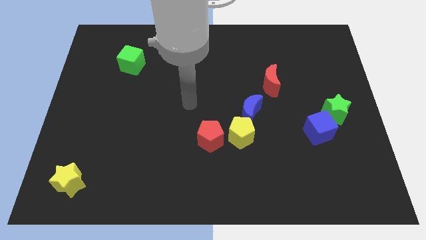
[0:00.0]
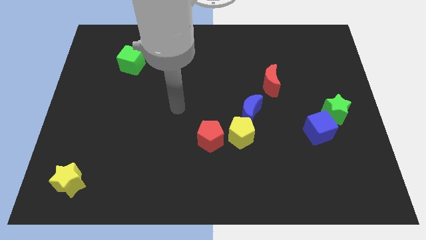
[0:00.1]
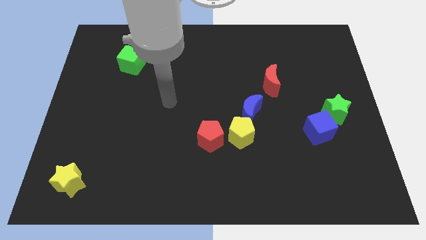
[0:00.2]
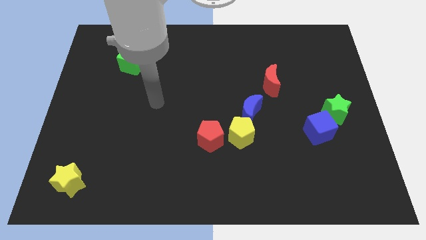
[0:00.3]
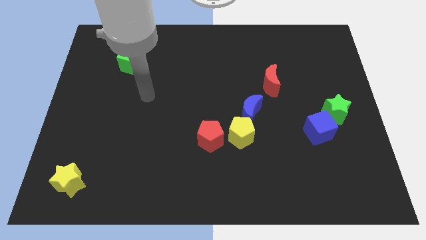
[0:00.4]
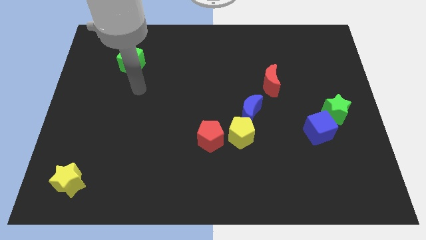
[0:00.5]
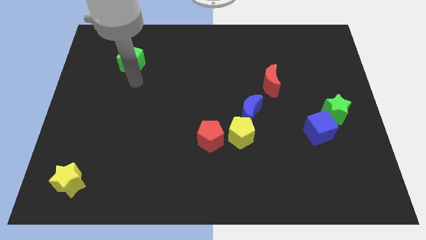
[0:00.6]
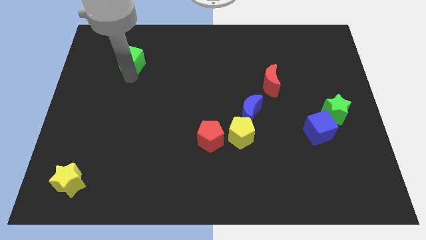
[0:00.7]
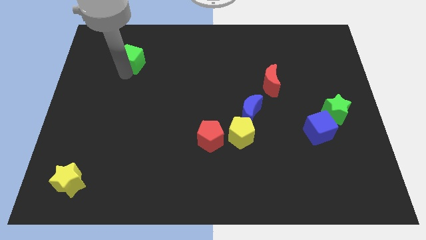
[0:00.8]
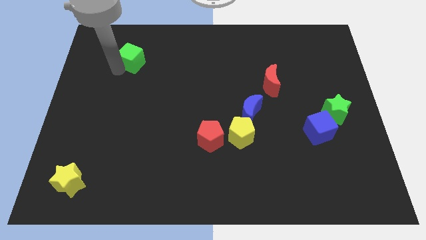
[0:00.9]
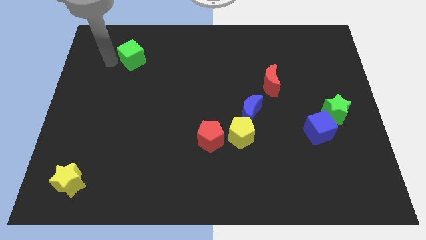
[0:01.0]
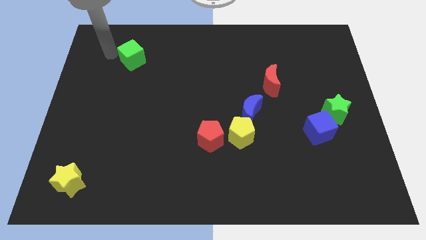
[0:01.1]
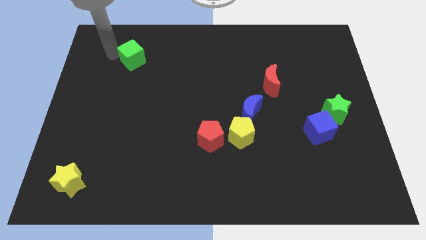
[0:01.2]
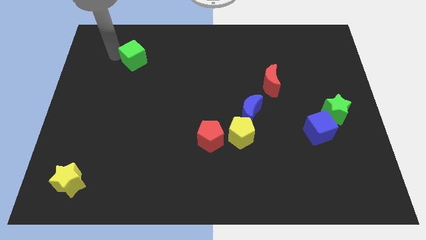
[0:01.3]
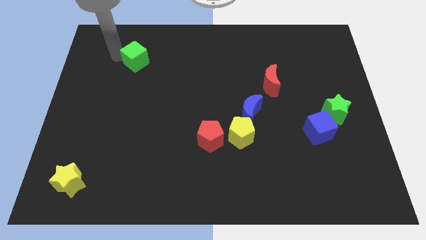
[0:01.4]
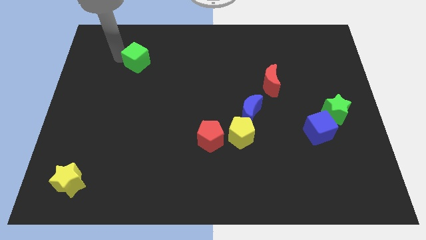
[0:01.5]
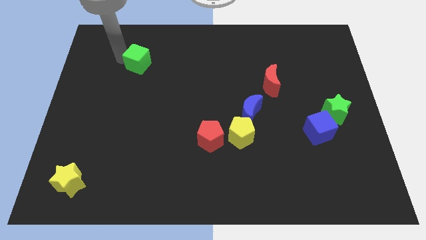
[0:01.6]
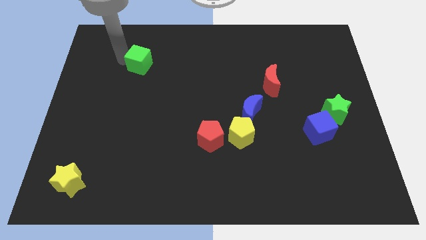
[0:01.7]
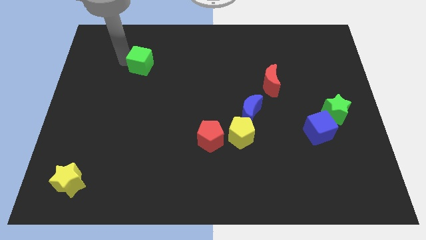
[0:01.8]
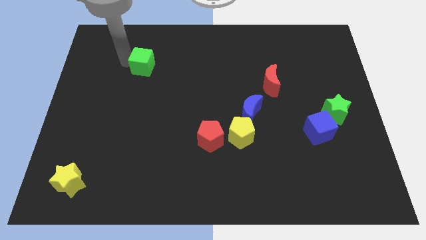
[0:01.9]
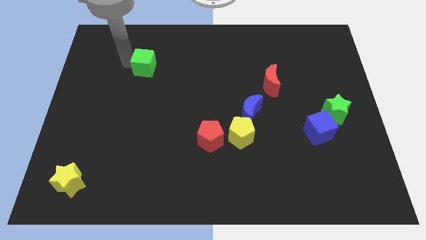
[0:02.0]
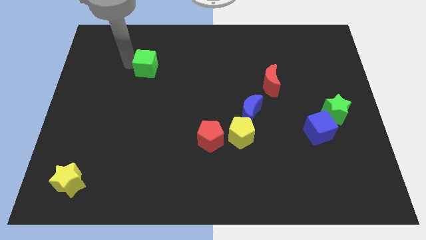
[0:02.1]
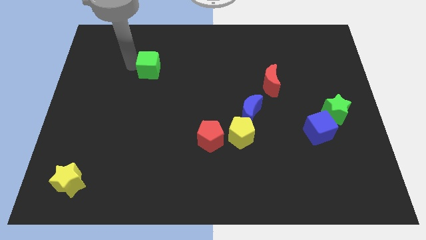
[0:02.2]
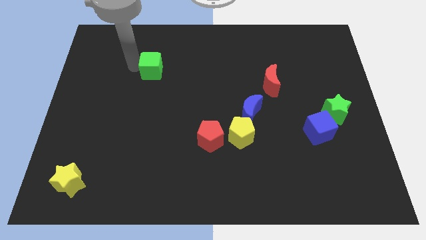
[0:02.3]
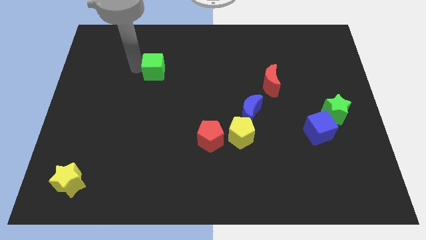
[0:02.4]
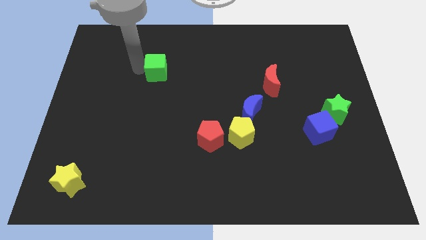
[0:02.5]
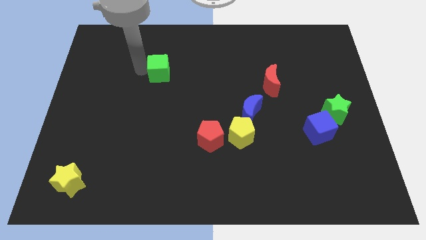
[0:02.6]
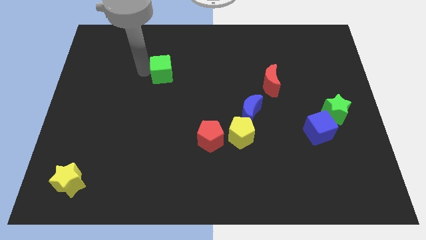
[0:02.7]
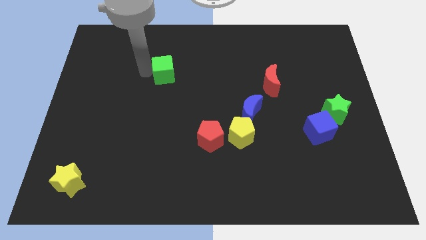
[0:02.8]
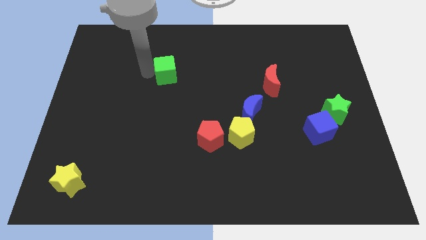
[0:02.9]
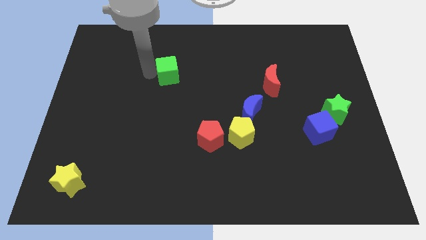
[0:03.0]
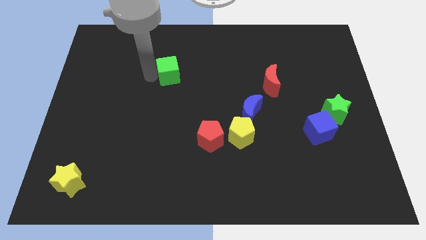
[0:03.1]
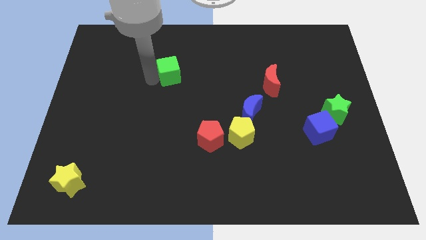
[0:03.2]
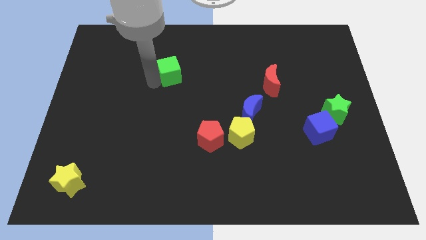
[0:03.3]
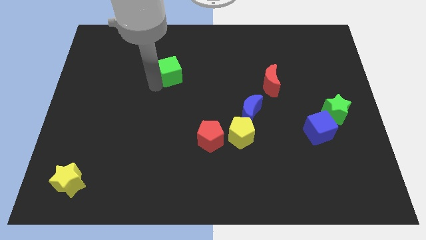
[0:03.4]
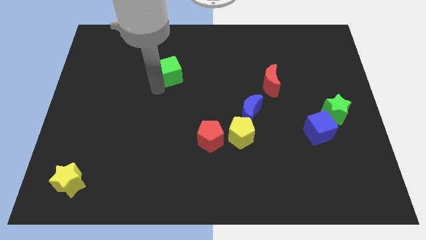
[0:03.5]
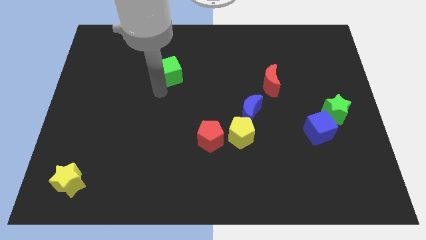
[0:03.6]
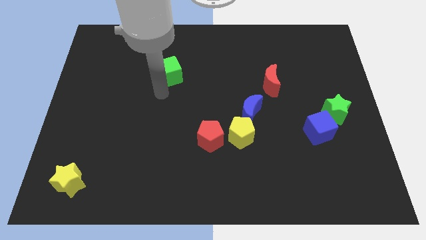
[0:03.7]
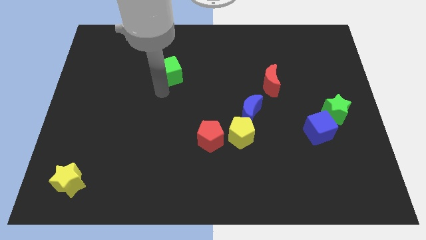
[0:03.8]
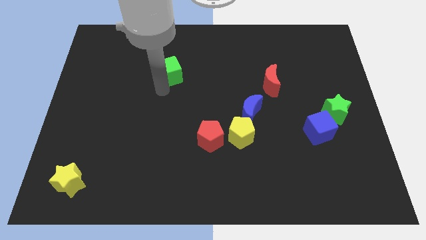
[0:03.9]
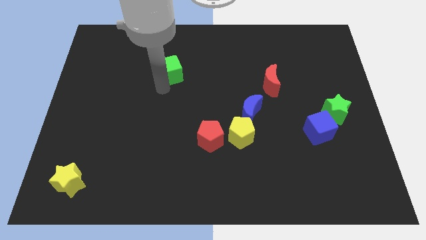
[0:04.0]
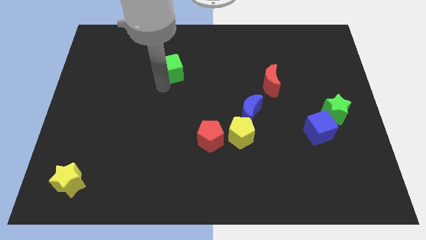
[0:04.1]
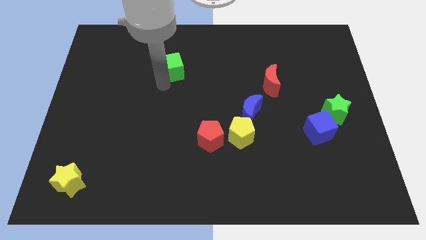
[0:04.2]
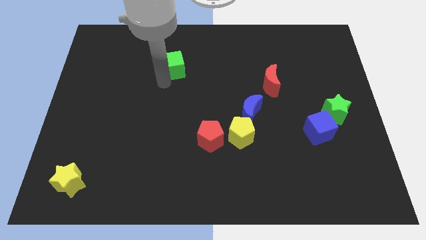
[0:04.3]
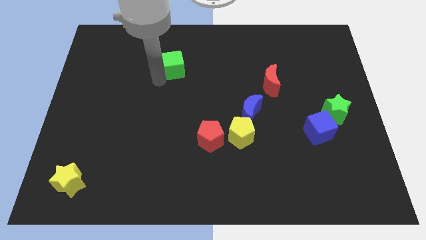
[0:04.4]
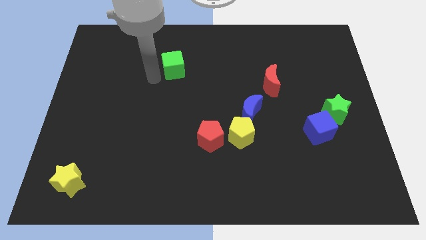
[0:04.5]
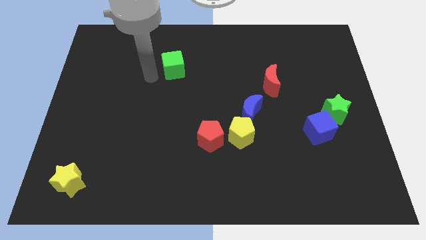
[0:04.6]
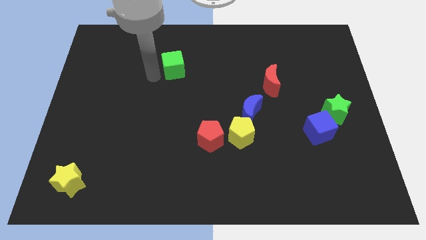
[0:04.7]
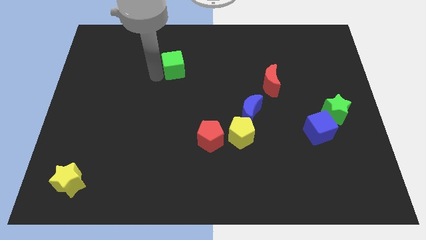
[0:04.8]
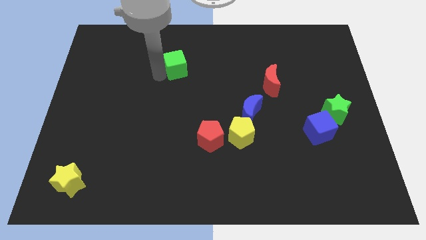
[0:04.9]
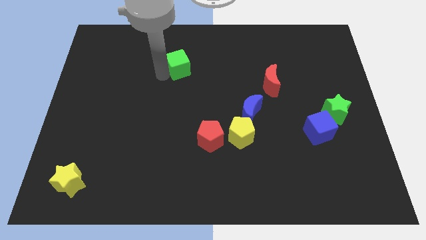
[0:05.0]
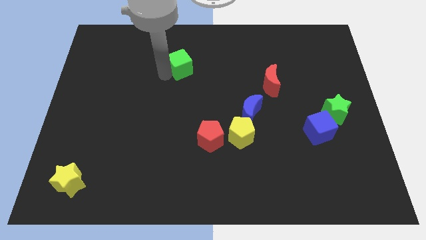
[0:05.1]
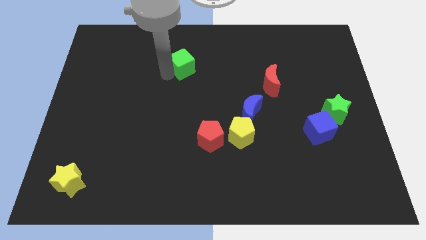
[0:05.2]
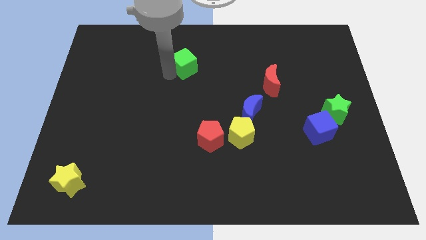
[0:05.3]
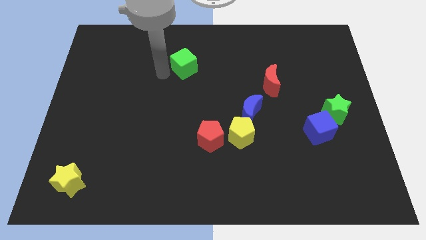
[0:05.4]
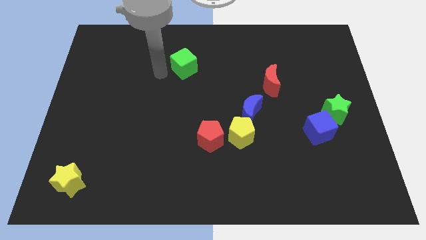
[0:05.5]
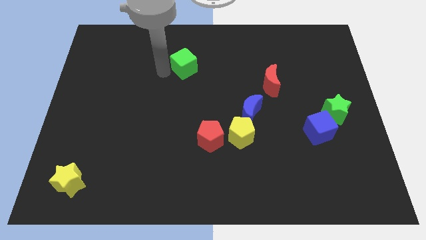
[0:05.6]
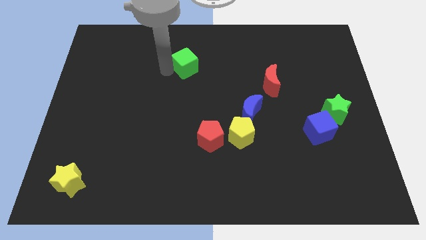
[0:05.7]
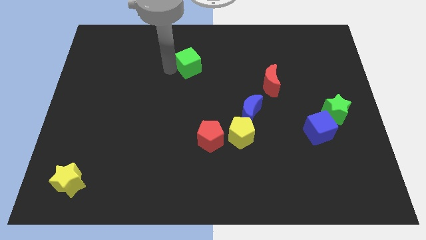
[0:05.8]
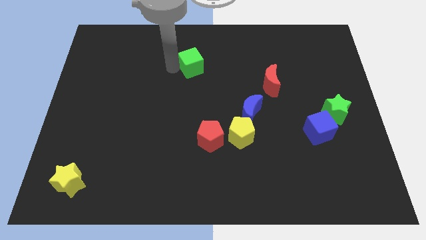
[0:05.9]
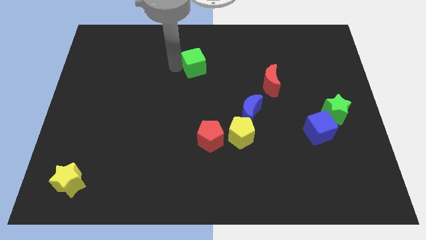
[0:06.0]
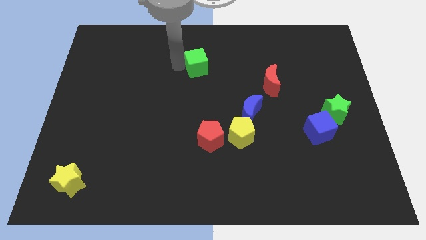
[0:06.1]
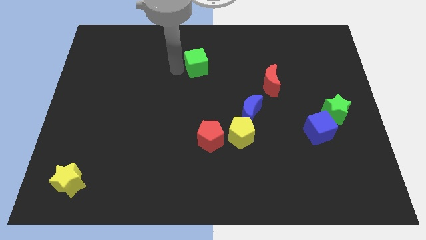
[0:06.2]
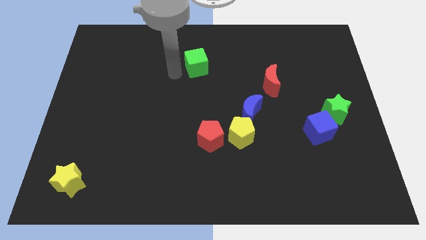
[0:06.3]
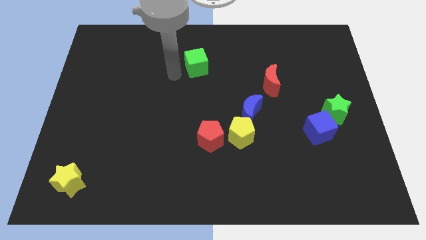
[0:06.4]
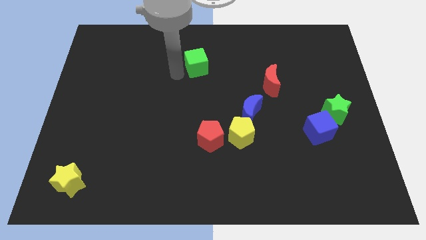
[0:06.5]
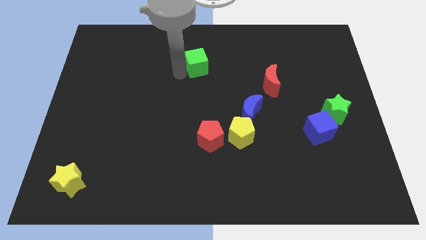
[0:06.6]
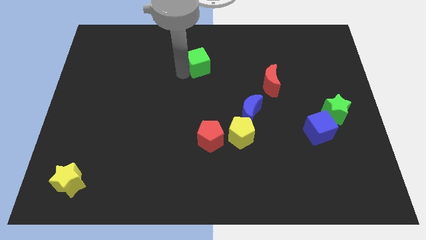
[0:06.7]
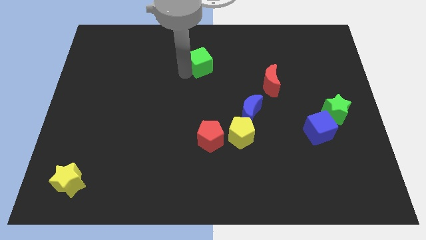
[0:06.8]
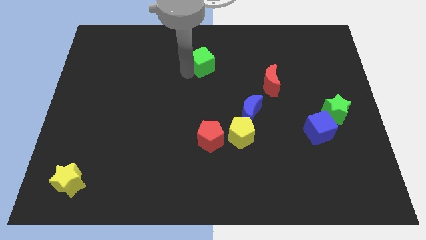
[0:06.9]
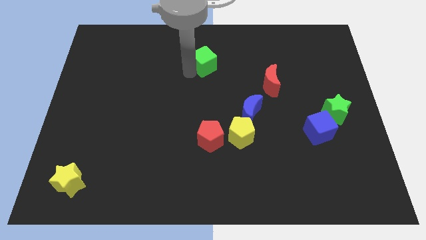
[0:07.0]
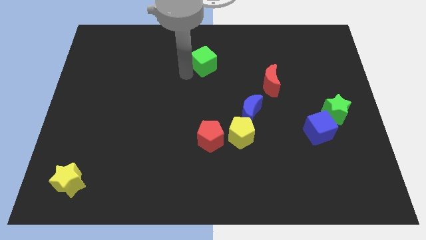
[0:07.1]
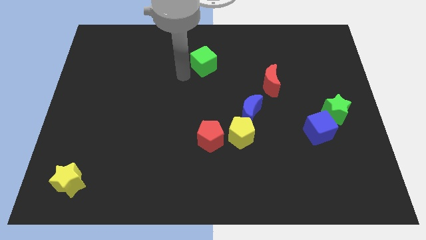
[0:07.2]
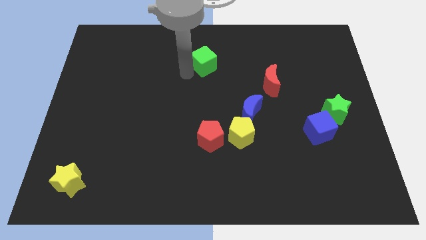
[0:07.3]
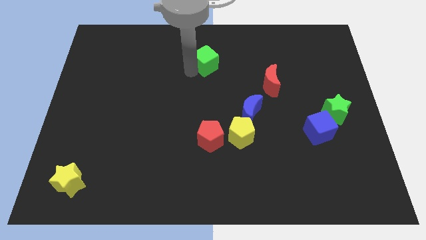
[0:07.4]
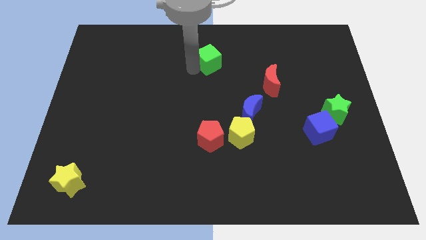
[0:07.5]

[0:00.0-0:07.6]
push the green cube to the right

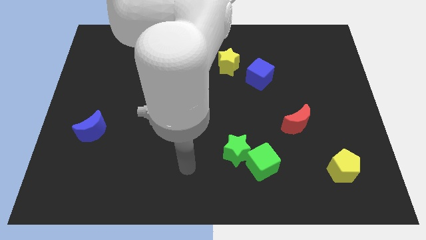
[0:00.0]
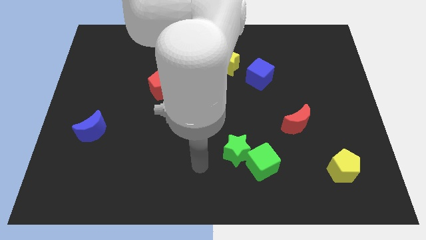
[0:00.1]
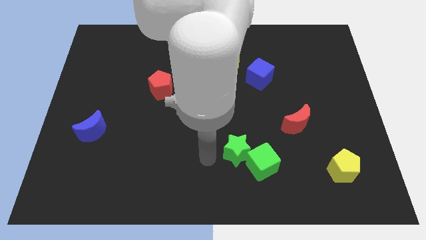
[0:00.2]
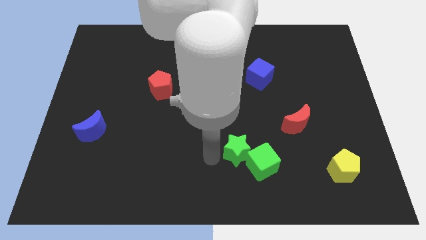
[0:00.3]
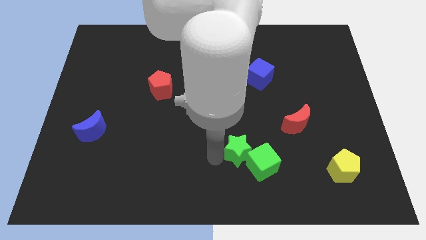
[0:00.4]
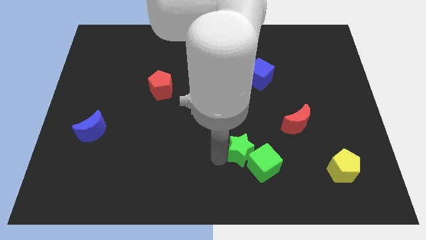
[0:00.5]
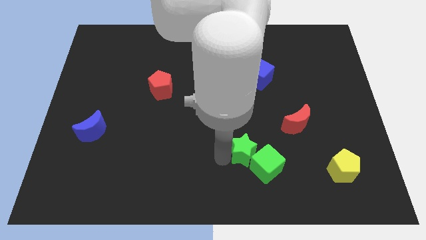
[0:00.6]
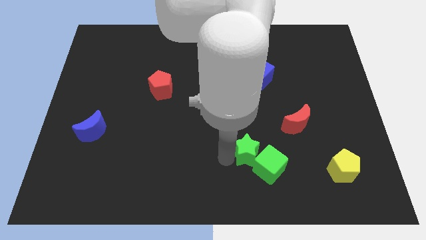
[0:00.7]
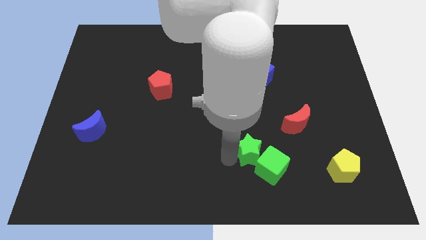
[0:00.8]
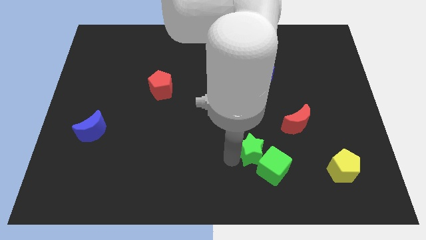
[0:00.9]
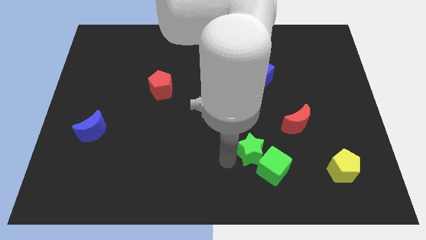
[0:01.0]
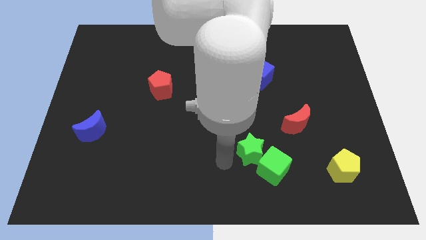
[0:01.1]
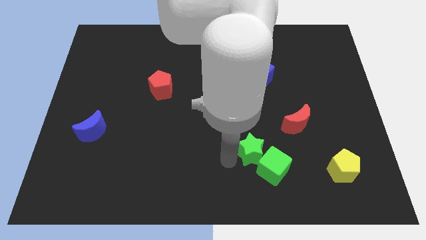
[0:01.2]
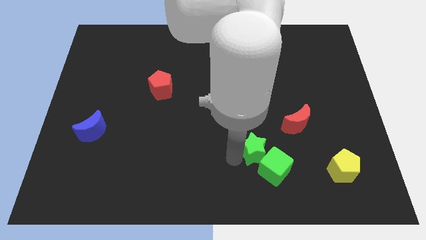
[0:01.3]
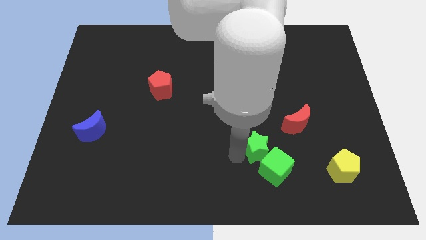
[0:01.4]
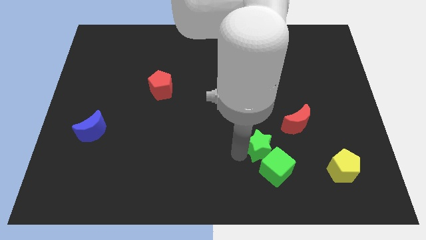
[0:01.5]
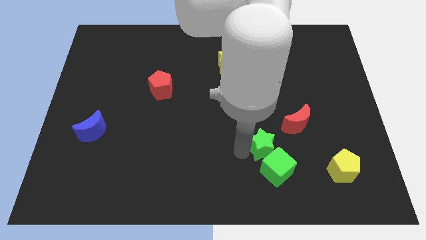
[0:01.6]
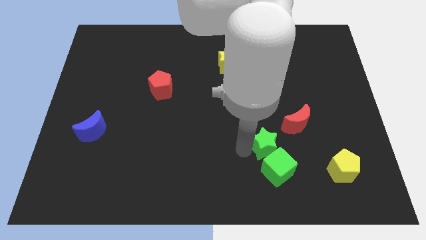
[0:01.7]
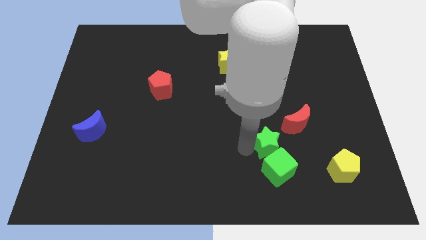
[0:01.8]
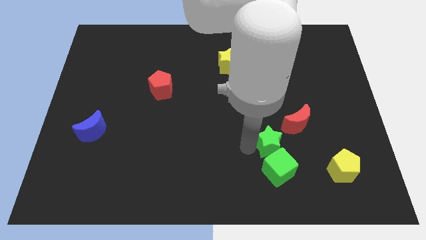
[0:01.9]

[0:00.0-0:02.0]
push the green star right slightly
